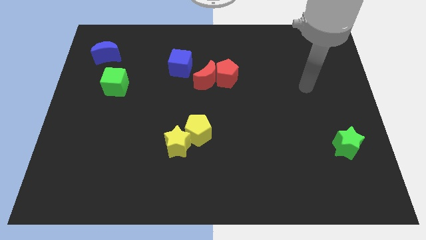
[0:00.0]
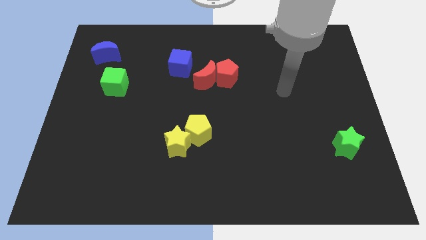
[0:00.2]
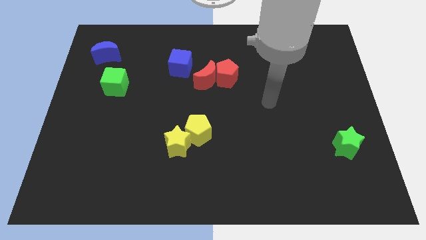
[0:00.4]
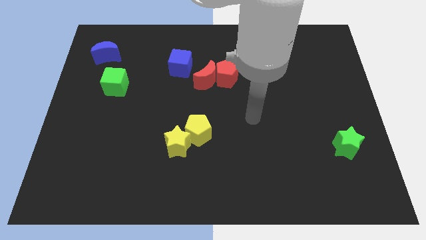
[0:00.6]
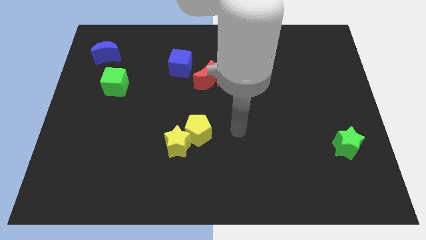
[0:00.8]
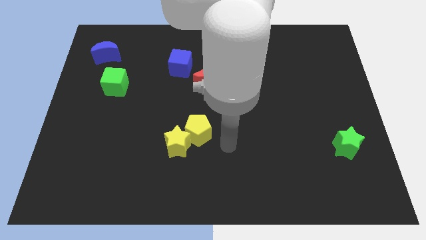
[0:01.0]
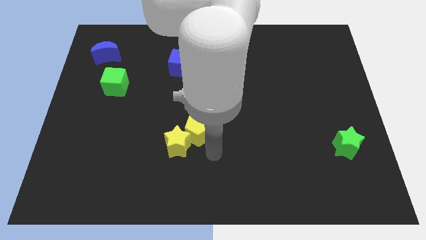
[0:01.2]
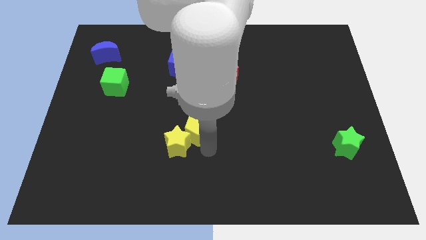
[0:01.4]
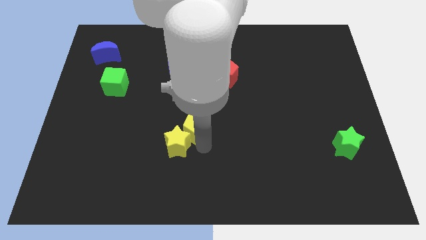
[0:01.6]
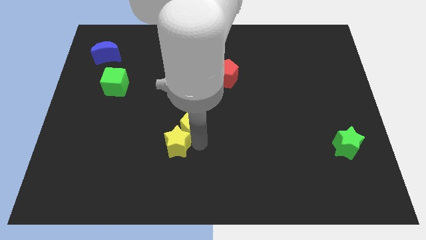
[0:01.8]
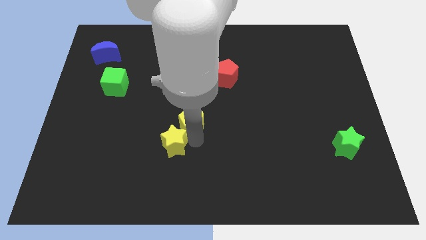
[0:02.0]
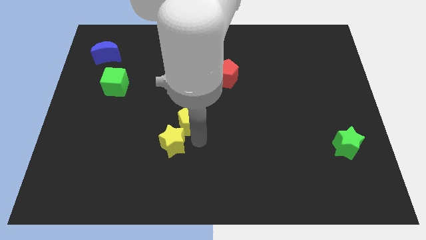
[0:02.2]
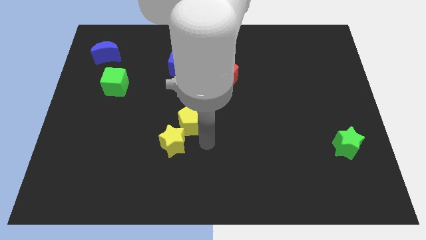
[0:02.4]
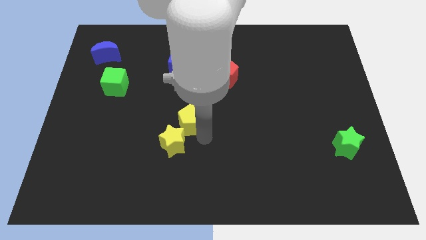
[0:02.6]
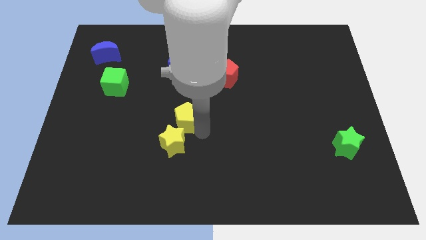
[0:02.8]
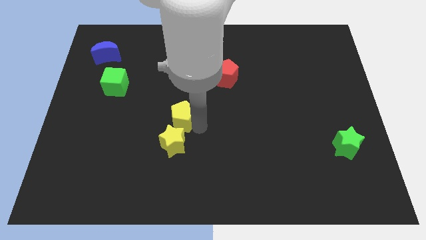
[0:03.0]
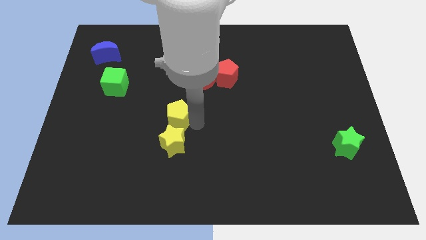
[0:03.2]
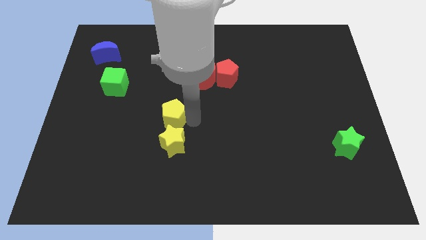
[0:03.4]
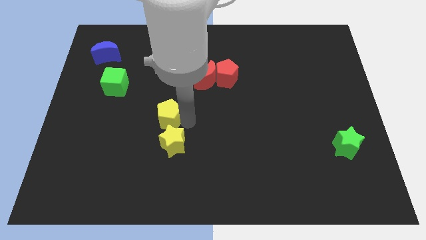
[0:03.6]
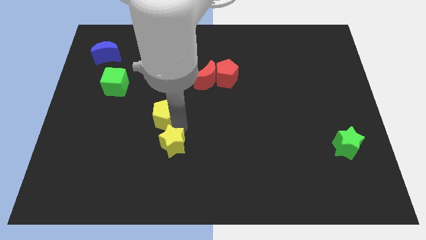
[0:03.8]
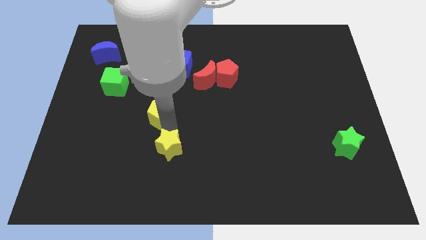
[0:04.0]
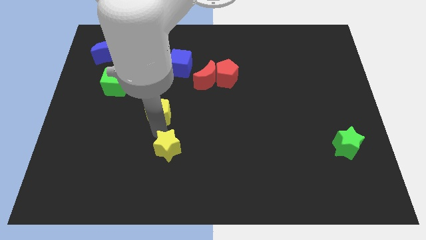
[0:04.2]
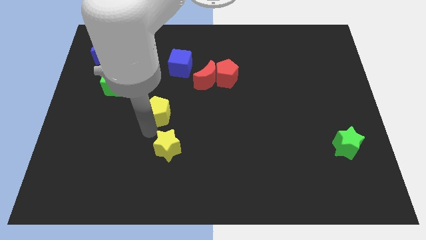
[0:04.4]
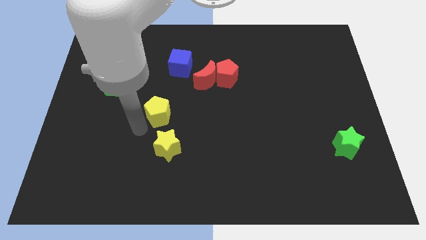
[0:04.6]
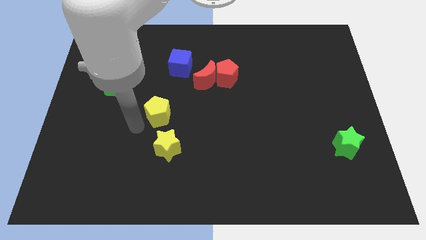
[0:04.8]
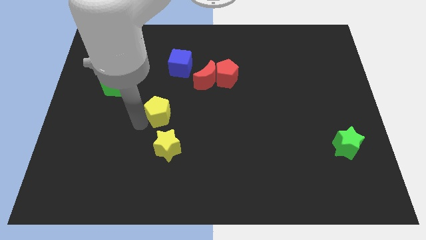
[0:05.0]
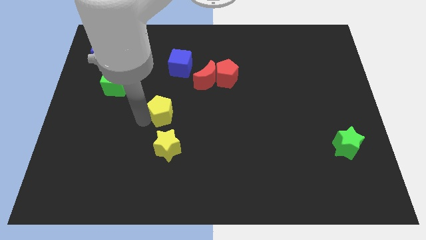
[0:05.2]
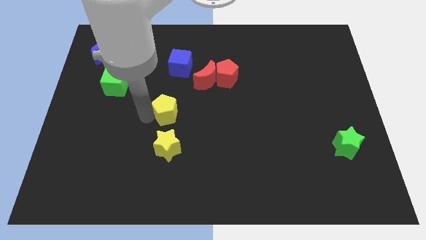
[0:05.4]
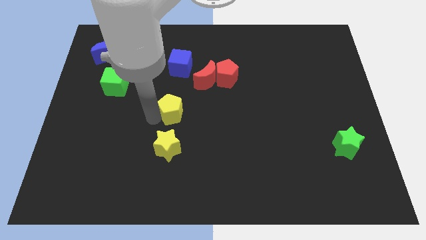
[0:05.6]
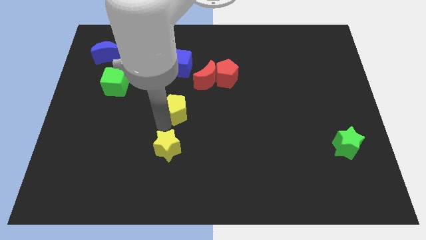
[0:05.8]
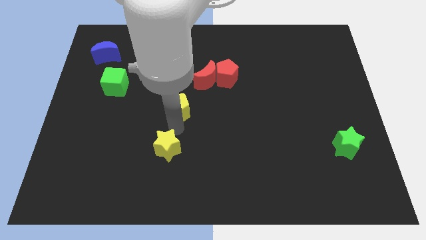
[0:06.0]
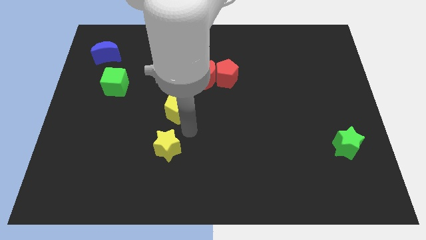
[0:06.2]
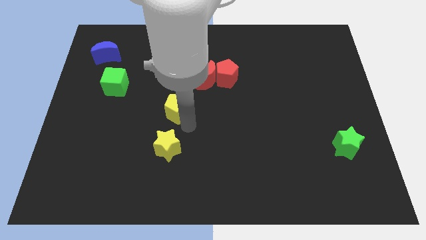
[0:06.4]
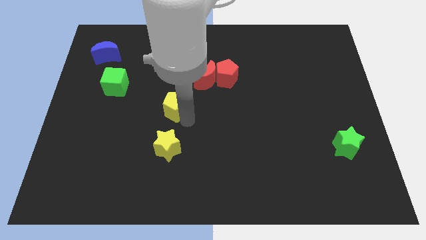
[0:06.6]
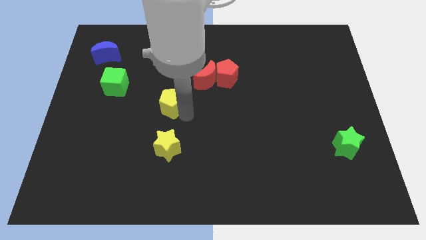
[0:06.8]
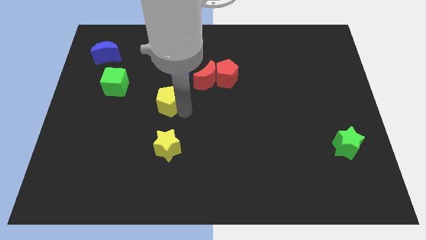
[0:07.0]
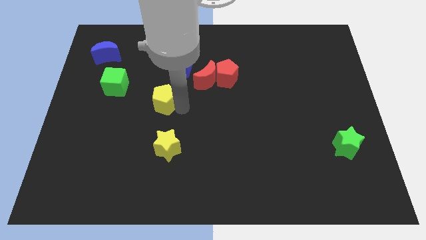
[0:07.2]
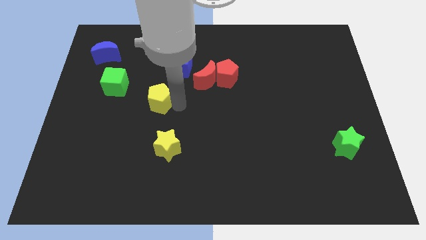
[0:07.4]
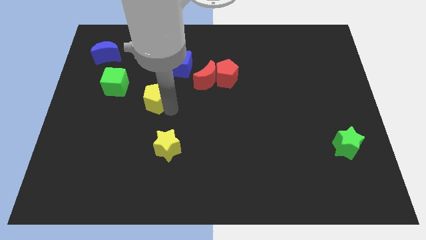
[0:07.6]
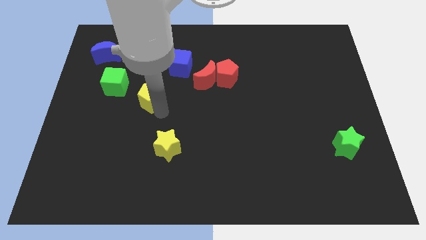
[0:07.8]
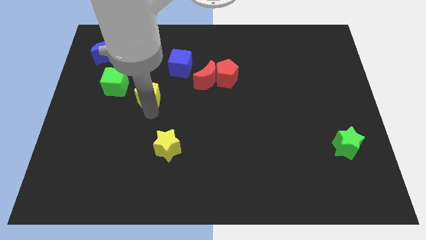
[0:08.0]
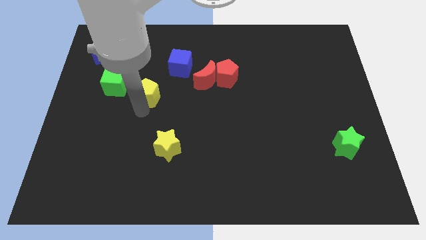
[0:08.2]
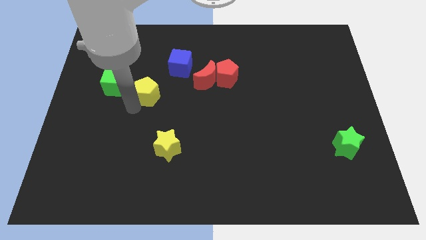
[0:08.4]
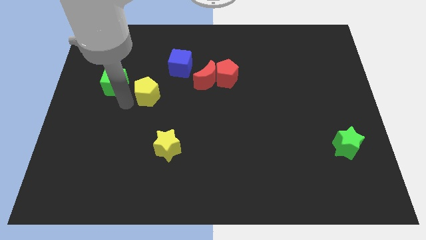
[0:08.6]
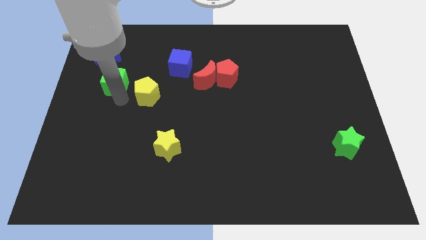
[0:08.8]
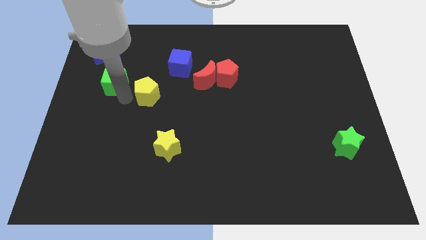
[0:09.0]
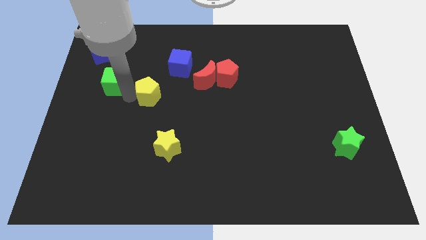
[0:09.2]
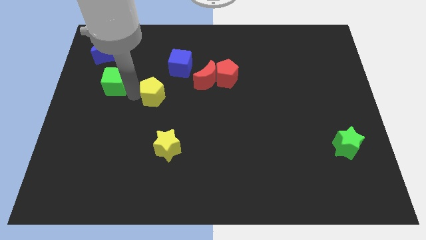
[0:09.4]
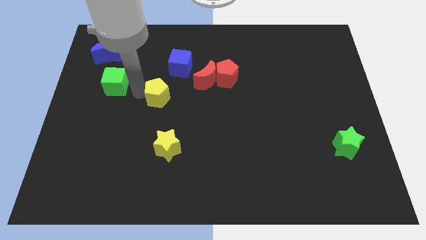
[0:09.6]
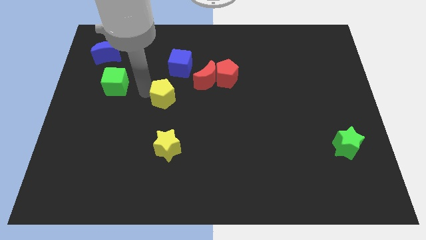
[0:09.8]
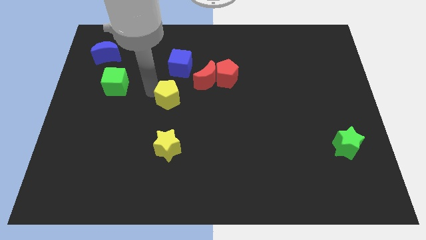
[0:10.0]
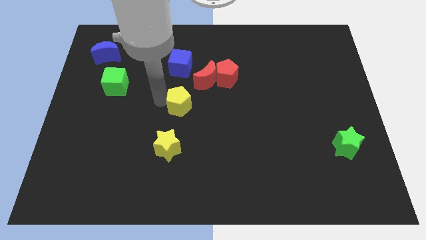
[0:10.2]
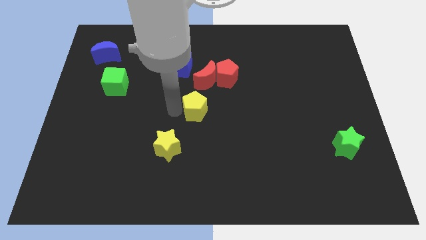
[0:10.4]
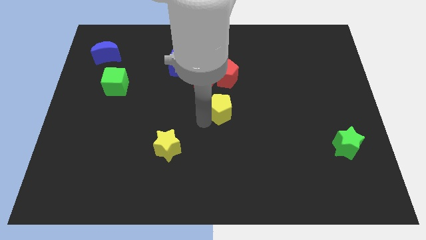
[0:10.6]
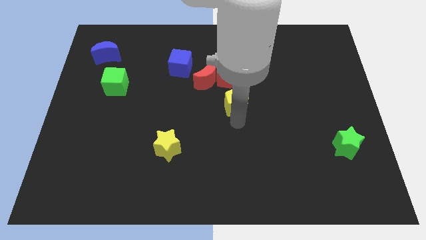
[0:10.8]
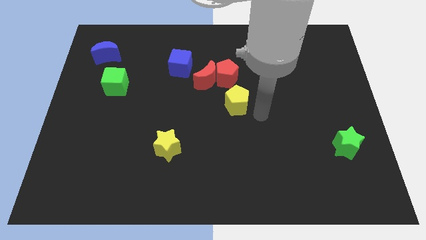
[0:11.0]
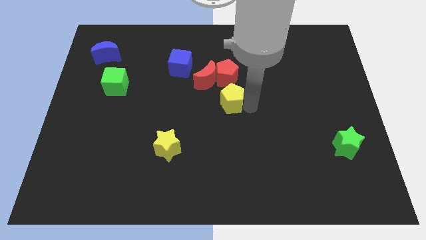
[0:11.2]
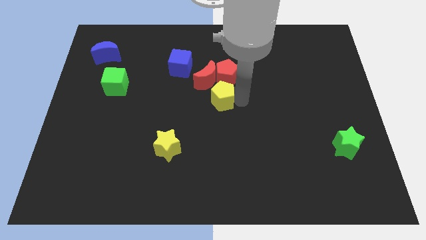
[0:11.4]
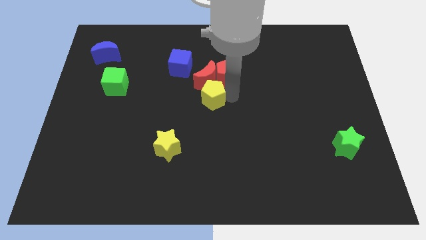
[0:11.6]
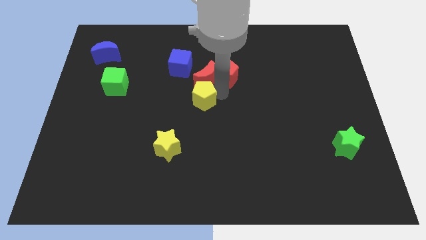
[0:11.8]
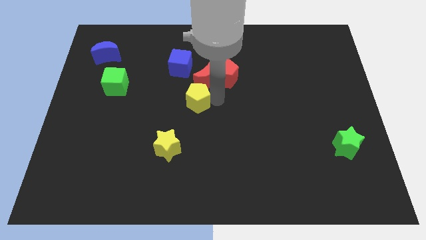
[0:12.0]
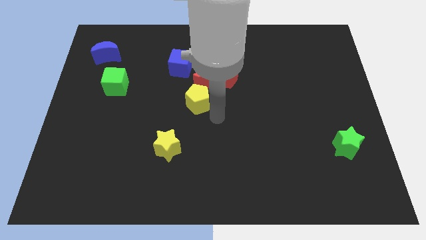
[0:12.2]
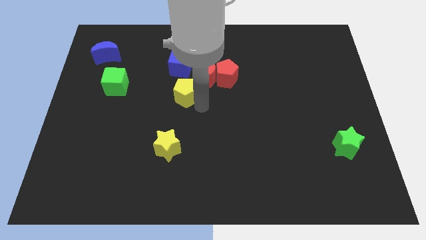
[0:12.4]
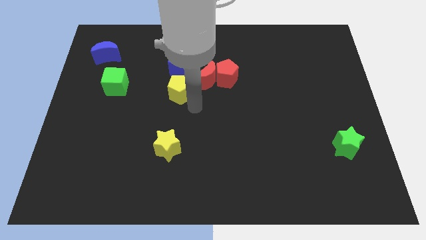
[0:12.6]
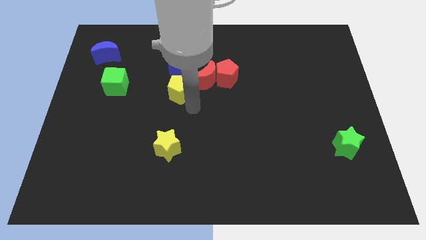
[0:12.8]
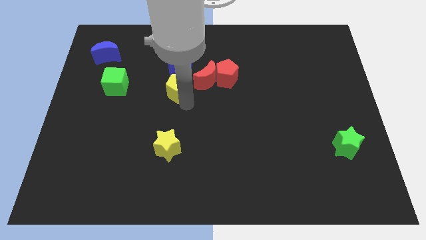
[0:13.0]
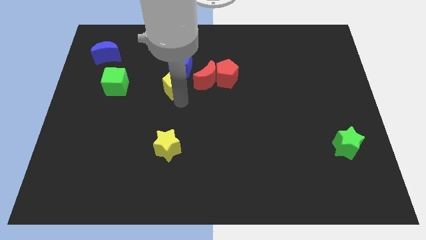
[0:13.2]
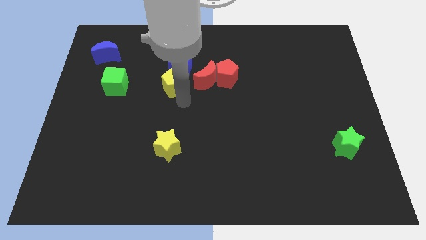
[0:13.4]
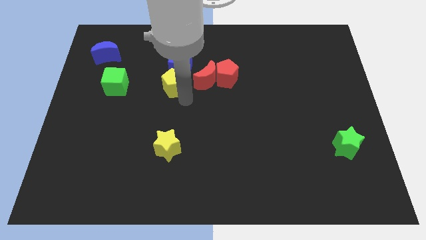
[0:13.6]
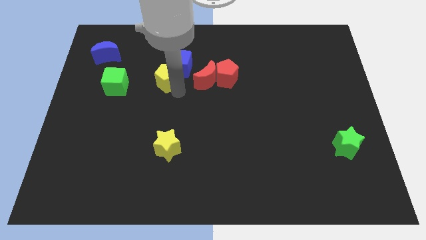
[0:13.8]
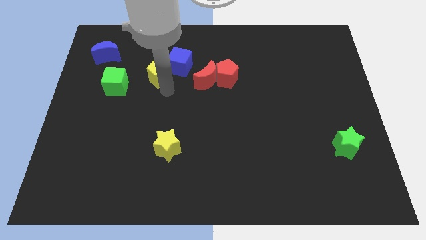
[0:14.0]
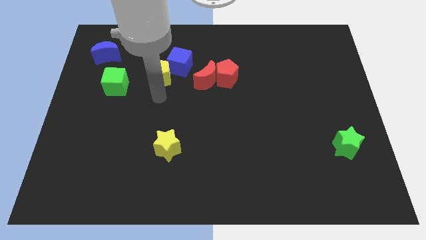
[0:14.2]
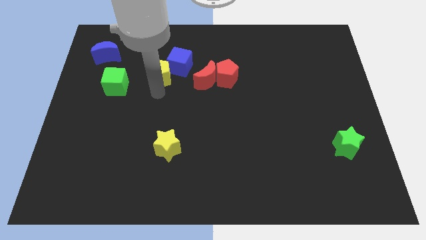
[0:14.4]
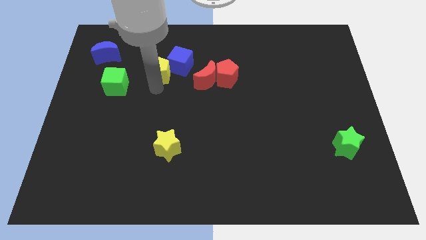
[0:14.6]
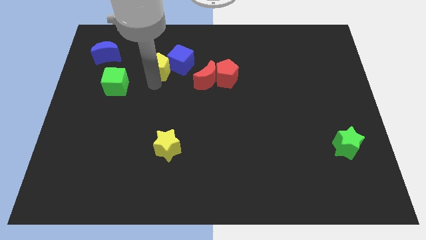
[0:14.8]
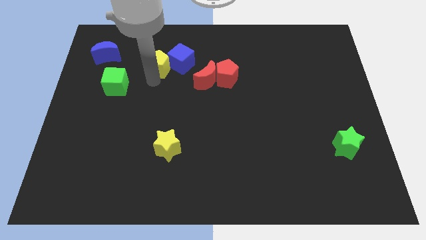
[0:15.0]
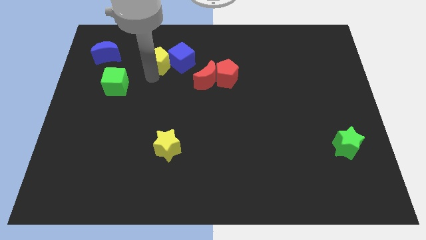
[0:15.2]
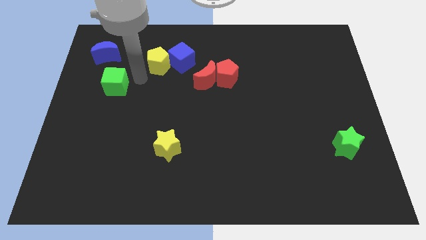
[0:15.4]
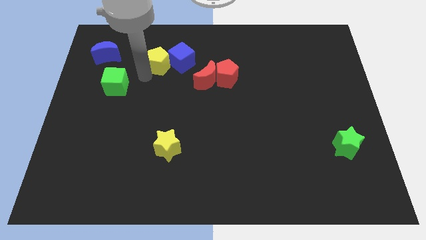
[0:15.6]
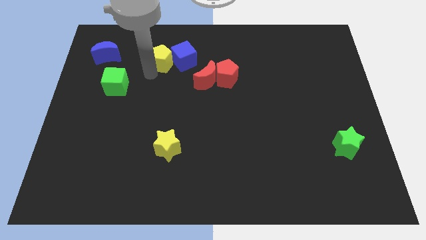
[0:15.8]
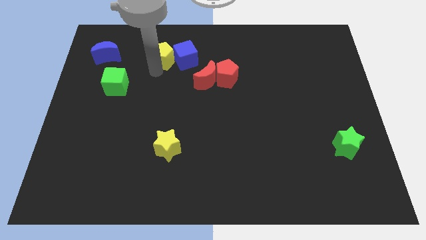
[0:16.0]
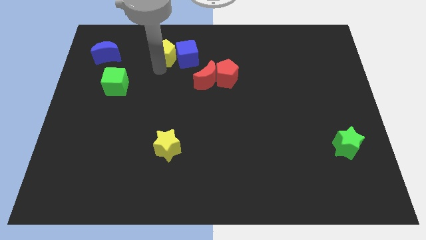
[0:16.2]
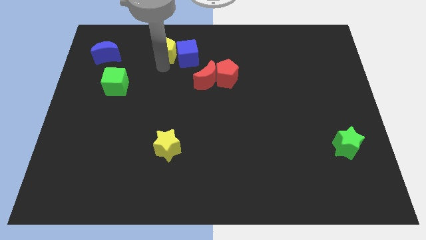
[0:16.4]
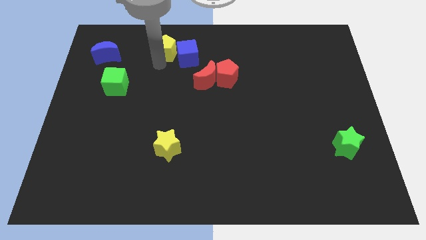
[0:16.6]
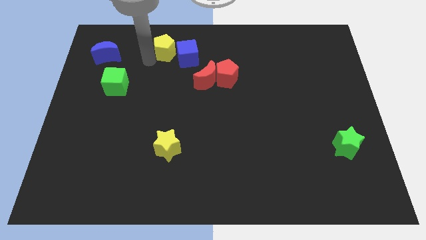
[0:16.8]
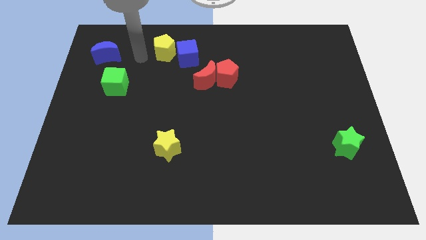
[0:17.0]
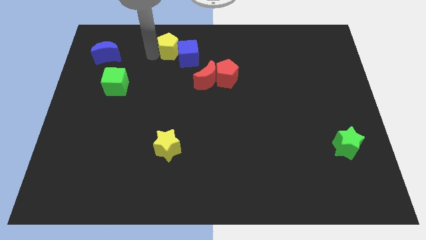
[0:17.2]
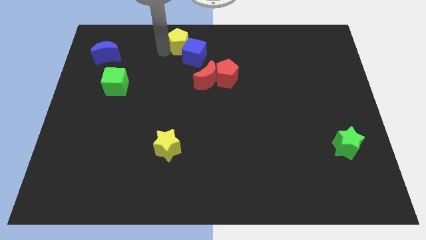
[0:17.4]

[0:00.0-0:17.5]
move the yellow pentagon to the top side
